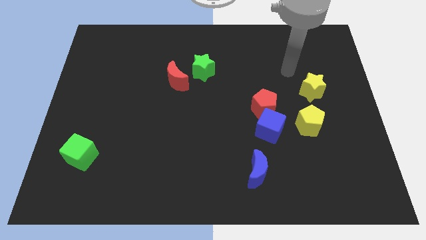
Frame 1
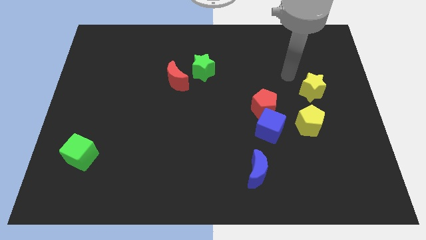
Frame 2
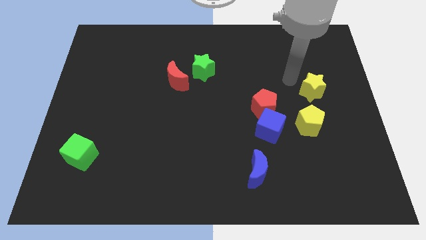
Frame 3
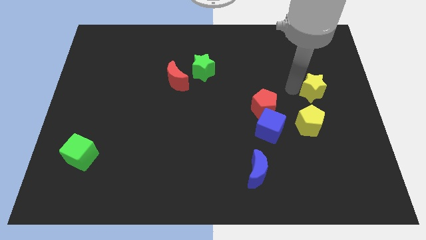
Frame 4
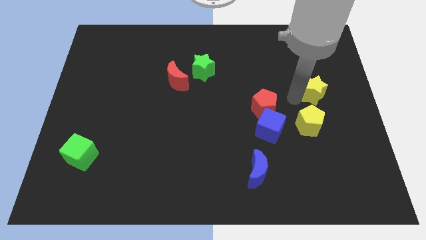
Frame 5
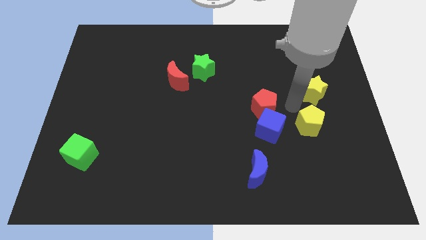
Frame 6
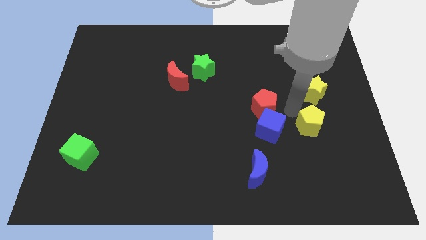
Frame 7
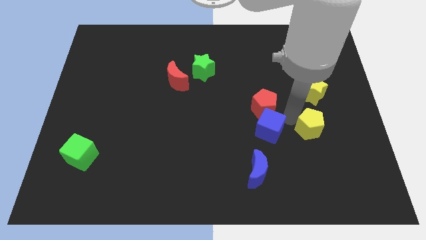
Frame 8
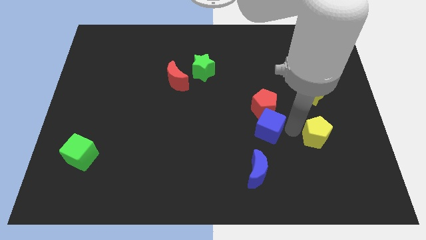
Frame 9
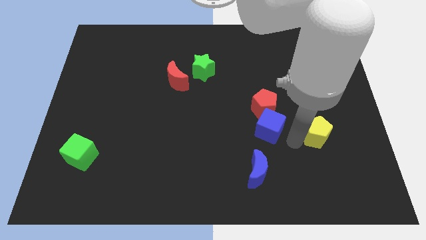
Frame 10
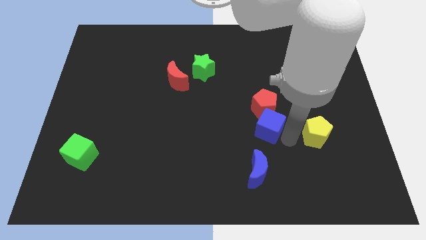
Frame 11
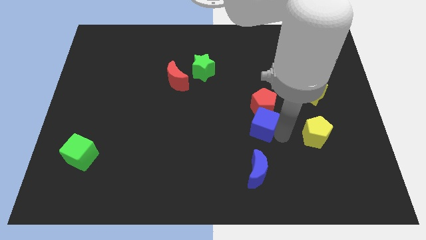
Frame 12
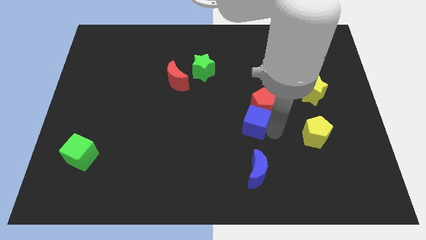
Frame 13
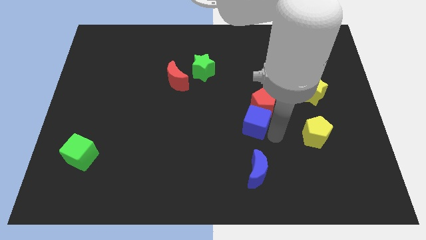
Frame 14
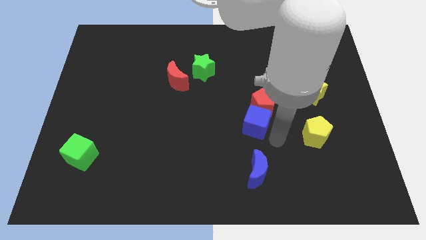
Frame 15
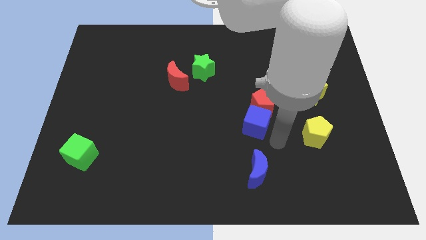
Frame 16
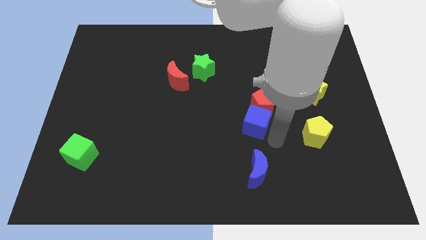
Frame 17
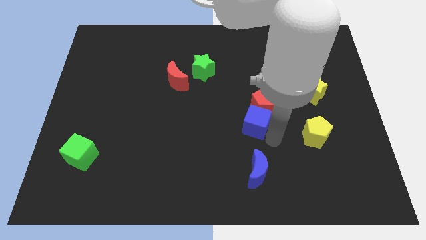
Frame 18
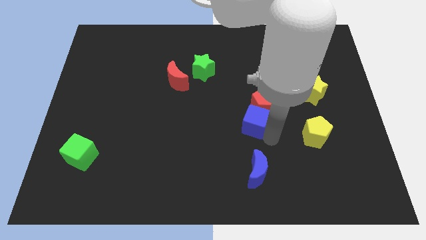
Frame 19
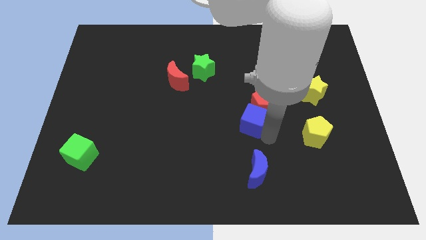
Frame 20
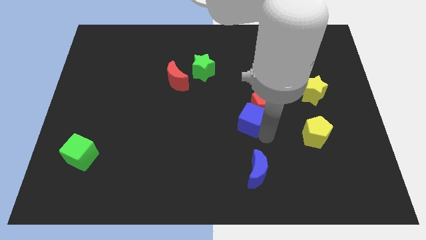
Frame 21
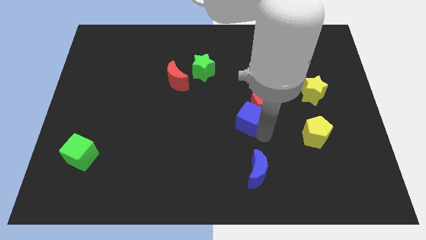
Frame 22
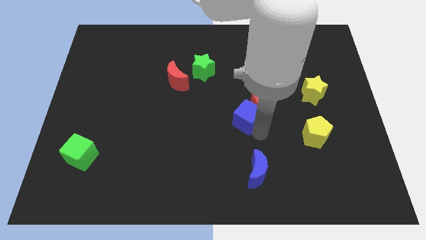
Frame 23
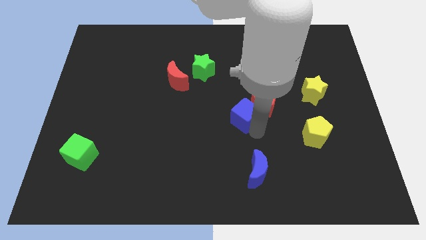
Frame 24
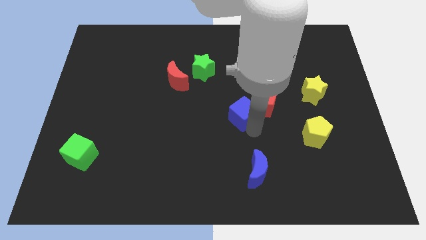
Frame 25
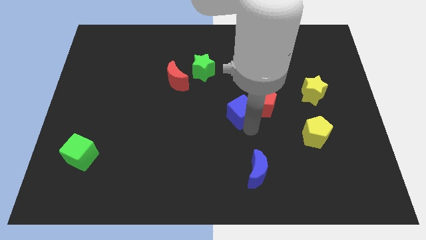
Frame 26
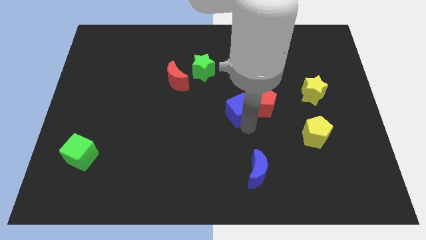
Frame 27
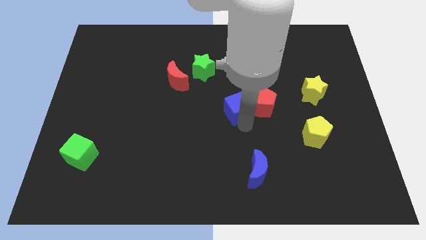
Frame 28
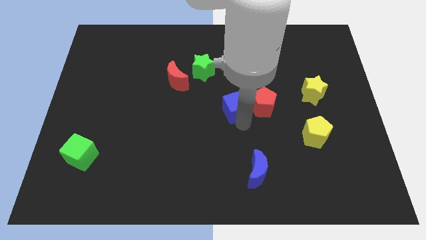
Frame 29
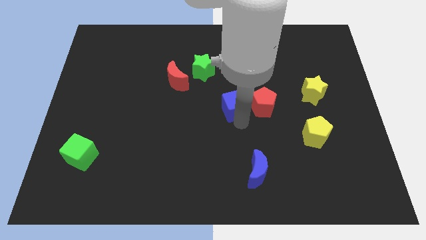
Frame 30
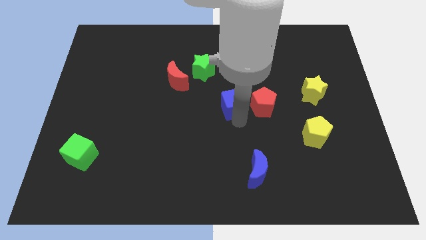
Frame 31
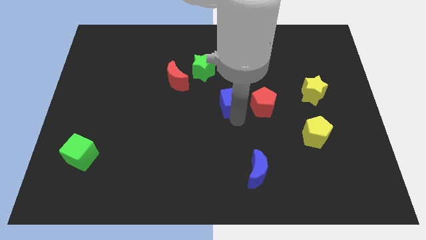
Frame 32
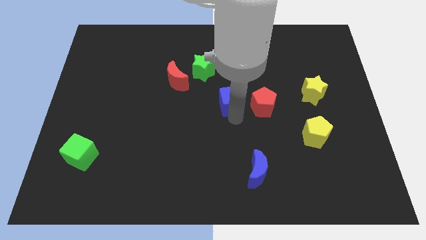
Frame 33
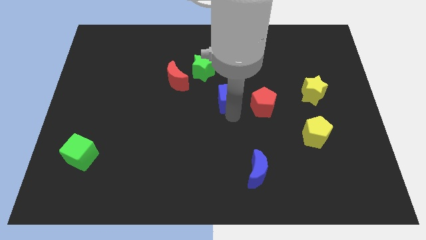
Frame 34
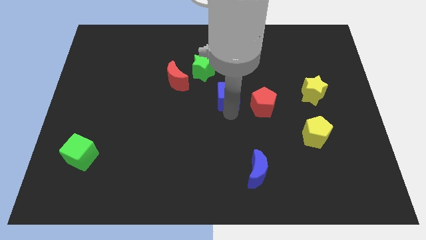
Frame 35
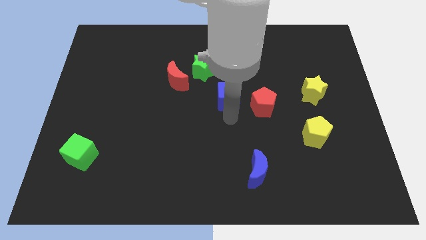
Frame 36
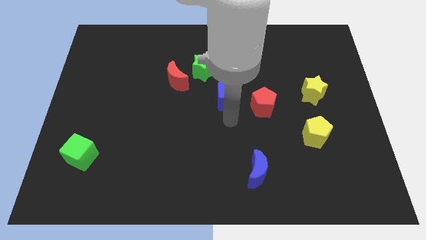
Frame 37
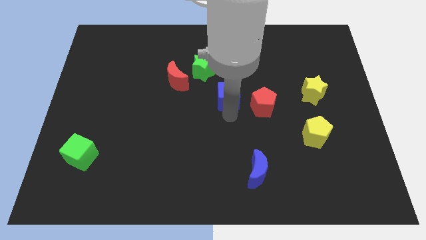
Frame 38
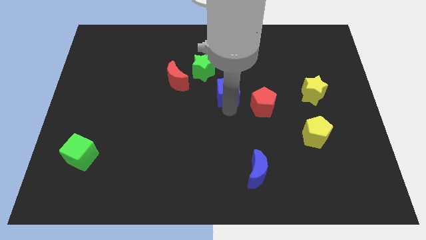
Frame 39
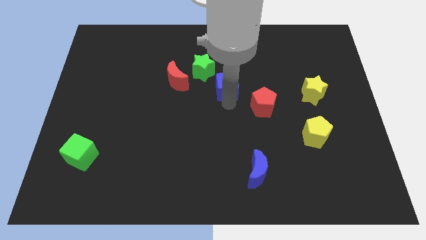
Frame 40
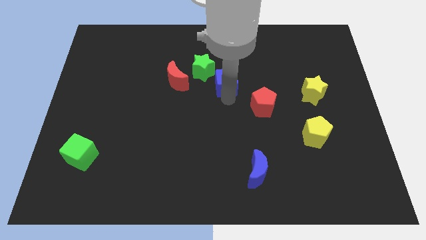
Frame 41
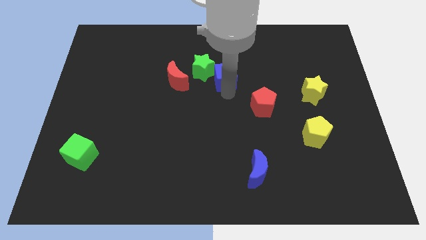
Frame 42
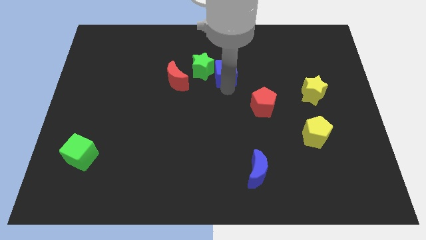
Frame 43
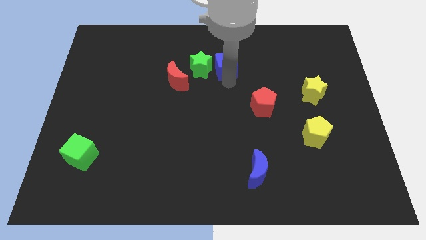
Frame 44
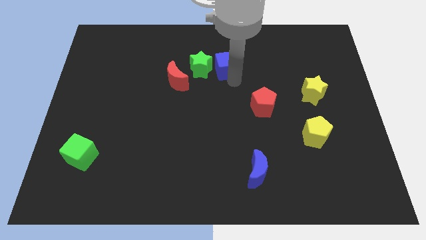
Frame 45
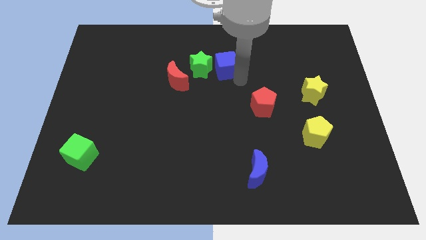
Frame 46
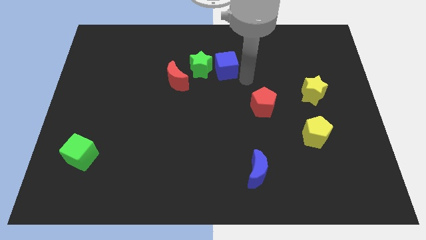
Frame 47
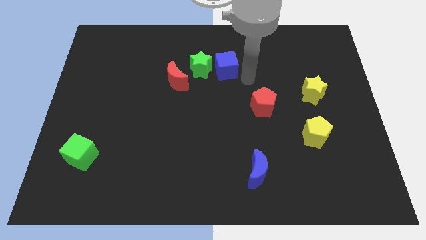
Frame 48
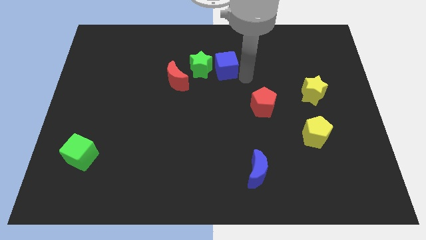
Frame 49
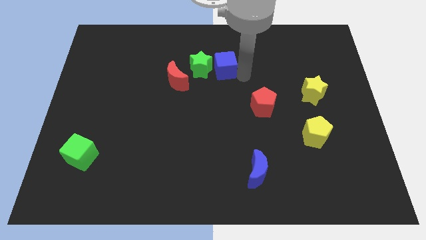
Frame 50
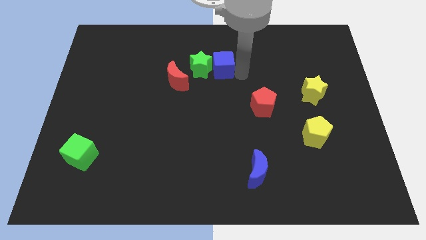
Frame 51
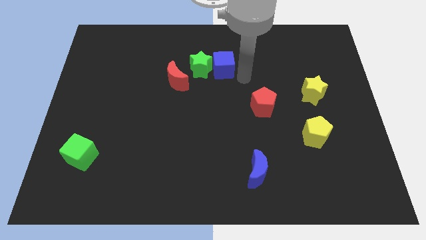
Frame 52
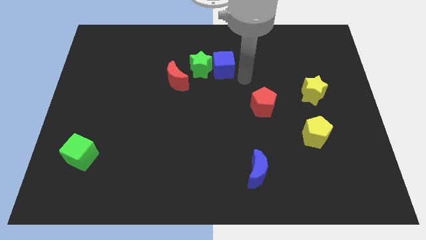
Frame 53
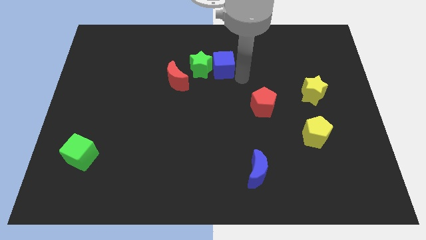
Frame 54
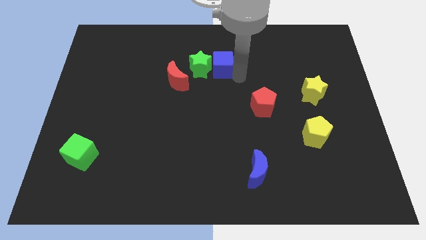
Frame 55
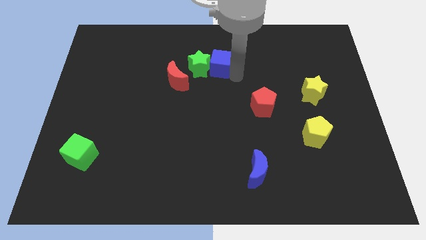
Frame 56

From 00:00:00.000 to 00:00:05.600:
push the blue cube upwards and to the left diagonally

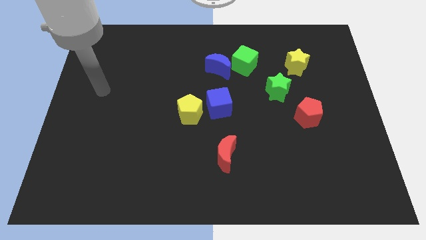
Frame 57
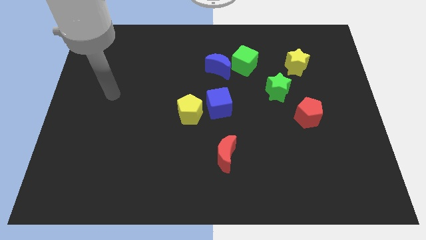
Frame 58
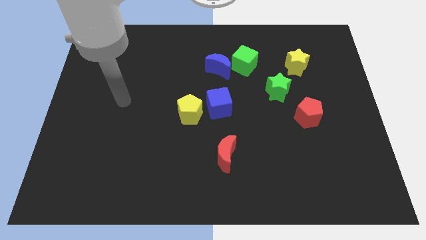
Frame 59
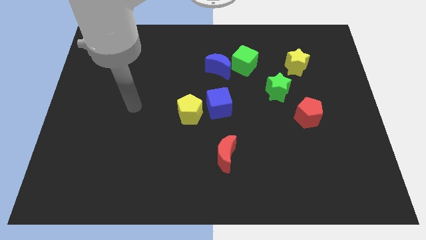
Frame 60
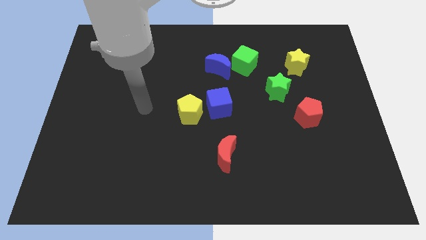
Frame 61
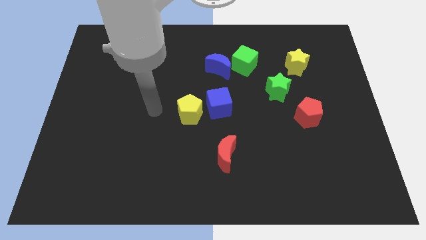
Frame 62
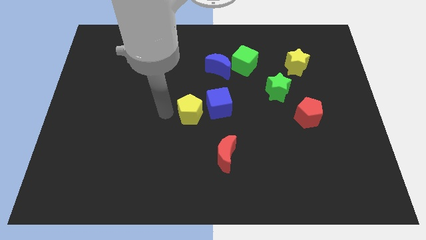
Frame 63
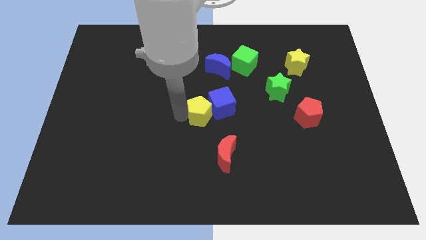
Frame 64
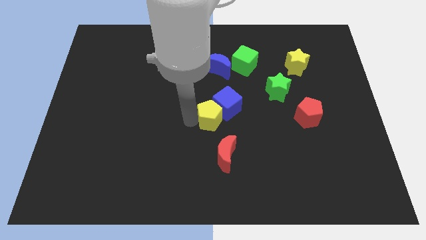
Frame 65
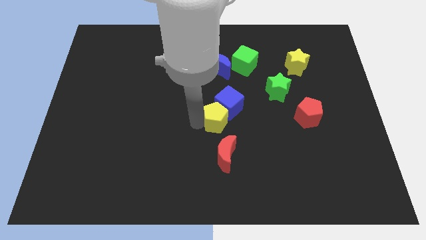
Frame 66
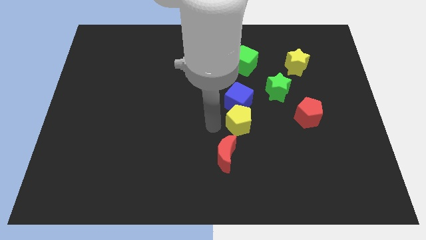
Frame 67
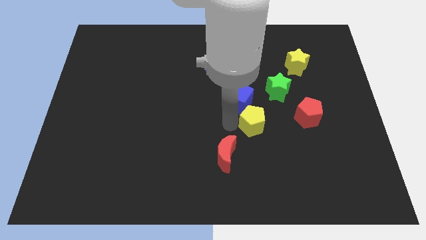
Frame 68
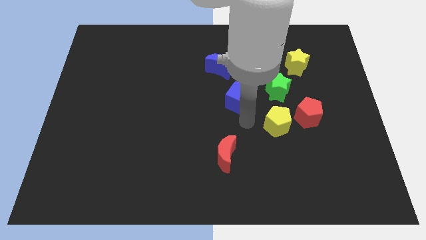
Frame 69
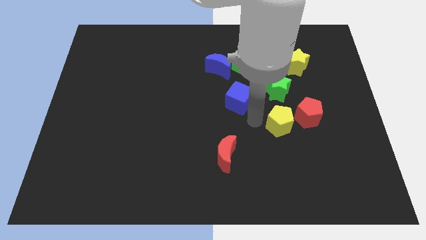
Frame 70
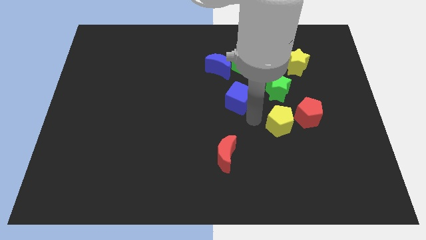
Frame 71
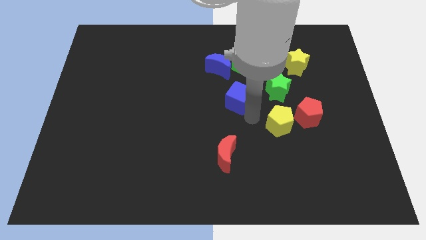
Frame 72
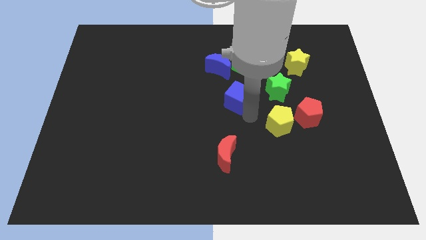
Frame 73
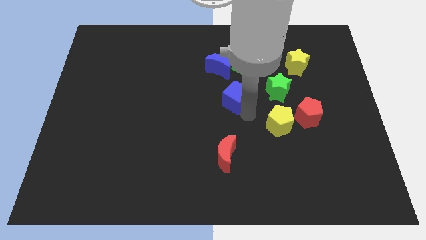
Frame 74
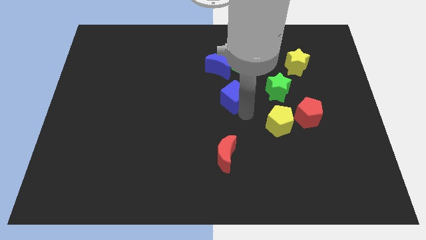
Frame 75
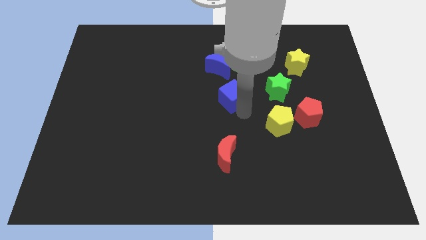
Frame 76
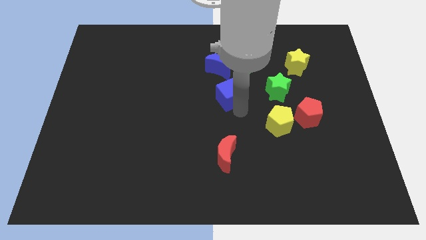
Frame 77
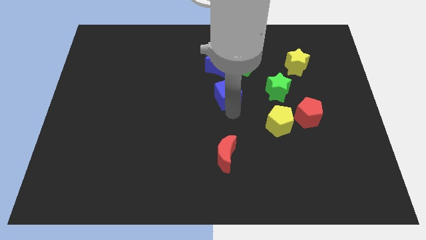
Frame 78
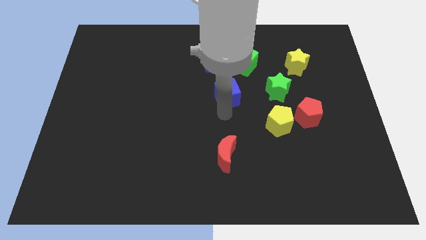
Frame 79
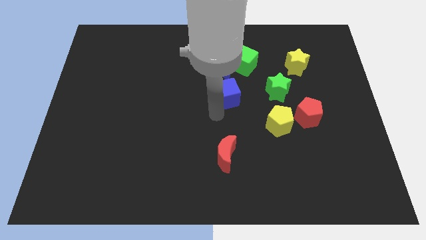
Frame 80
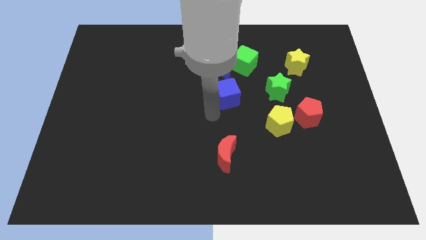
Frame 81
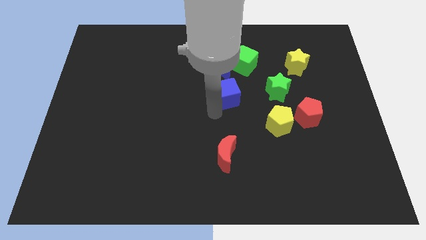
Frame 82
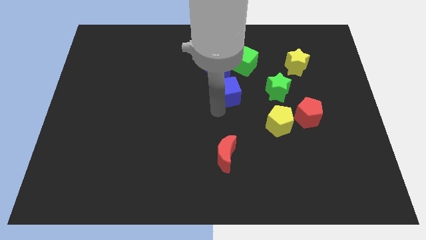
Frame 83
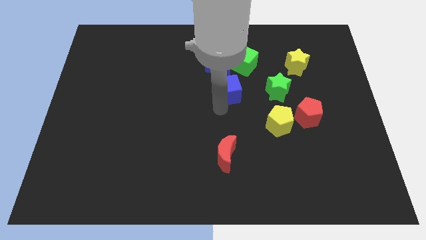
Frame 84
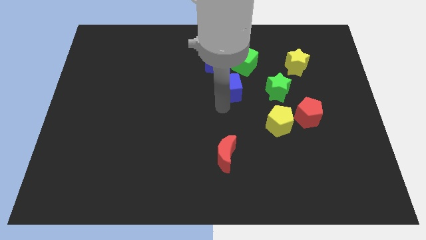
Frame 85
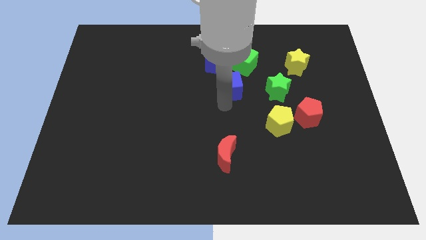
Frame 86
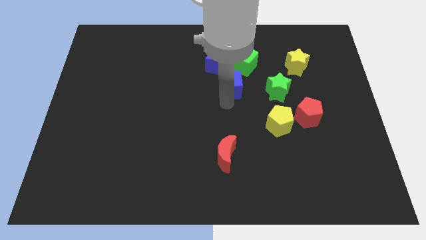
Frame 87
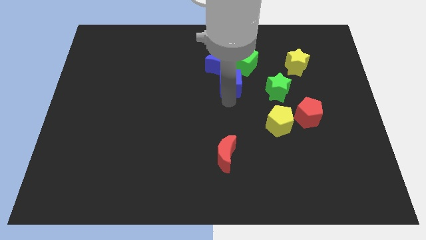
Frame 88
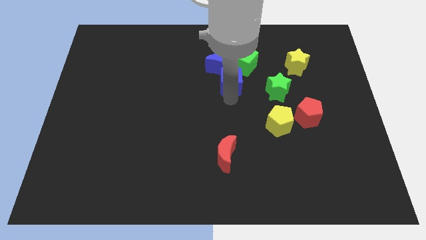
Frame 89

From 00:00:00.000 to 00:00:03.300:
move the blue cube a bit upwards and to the right
